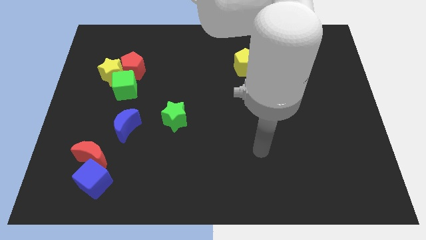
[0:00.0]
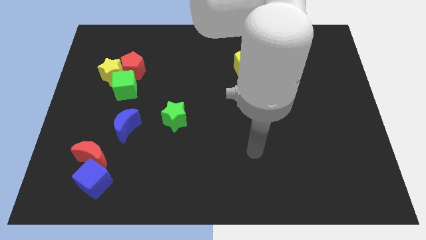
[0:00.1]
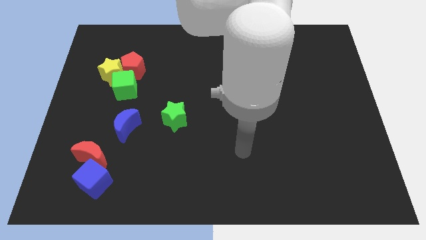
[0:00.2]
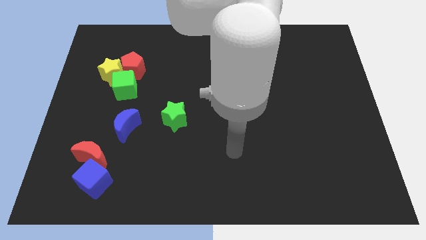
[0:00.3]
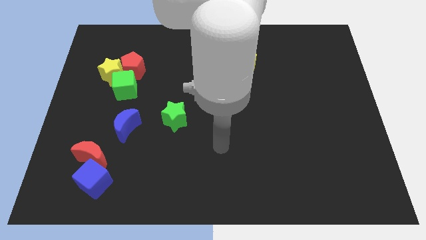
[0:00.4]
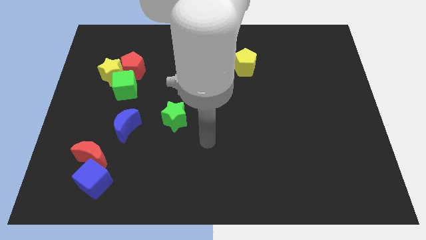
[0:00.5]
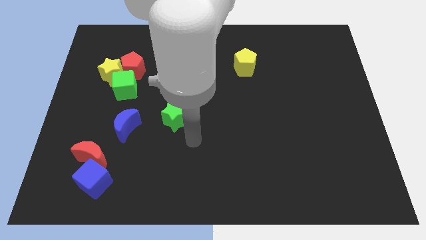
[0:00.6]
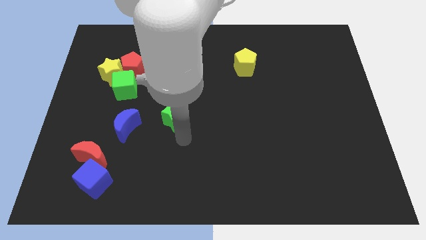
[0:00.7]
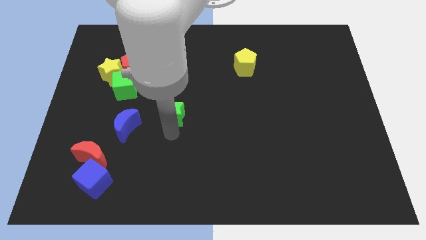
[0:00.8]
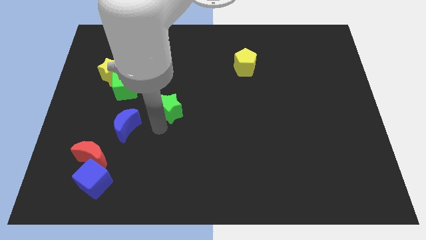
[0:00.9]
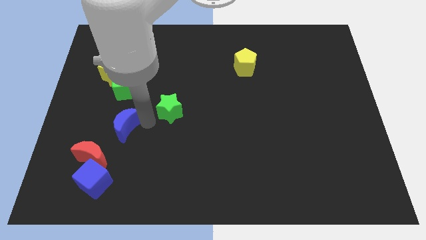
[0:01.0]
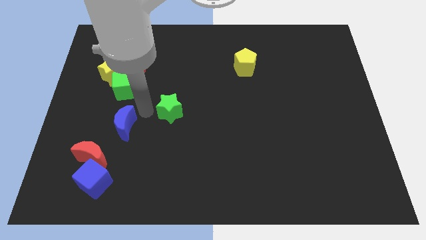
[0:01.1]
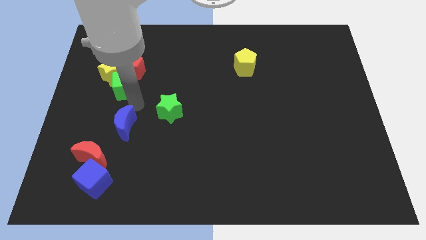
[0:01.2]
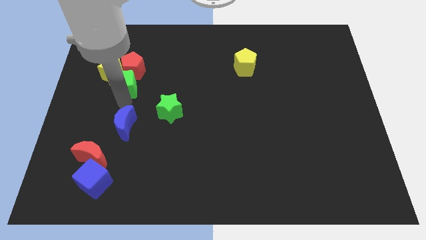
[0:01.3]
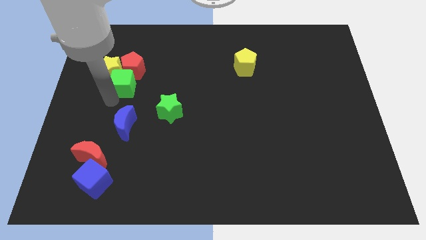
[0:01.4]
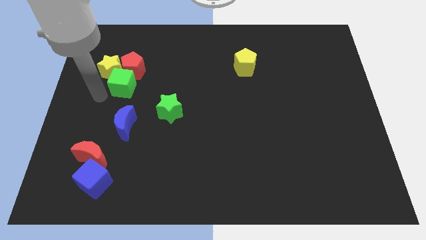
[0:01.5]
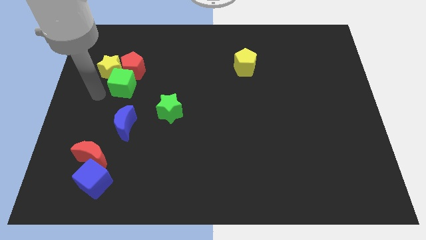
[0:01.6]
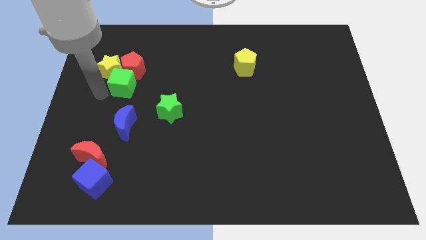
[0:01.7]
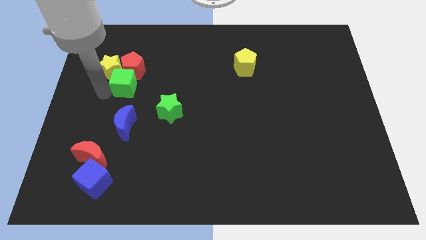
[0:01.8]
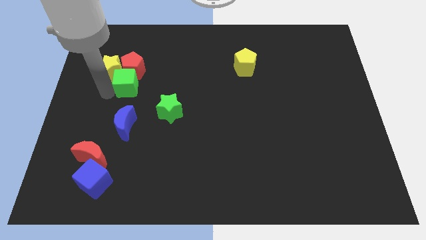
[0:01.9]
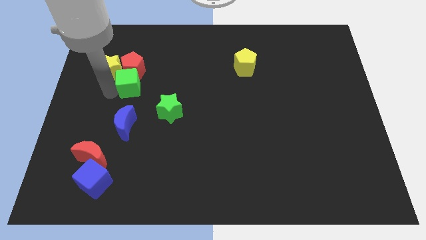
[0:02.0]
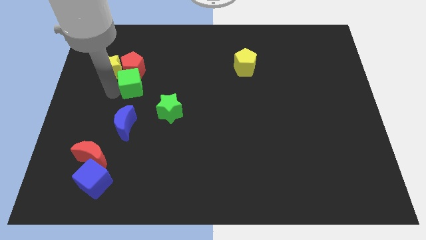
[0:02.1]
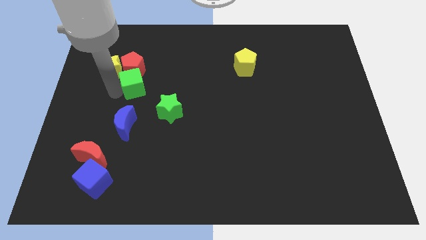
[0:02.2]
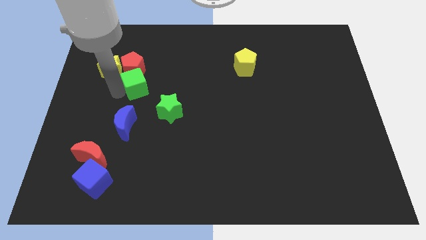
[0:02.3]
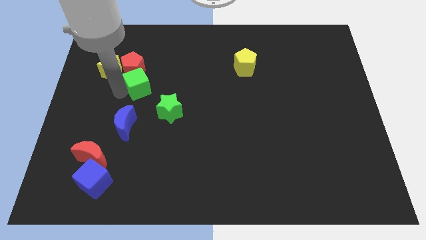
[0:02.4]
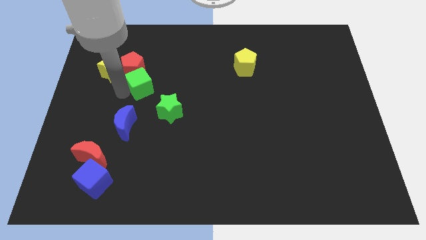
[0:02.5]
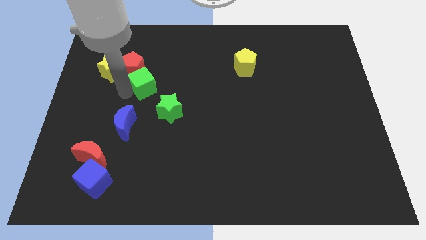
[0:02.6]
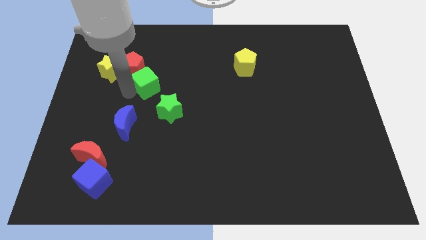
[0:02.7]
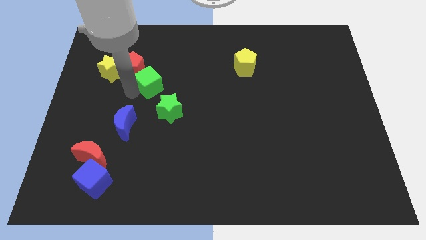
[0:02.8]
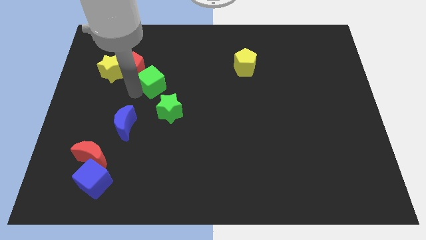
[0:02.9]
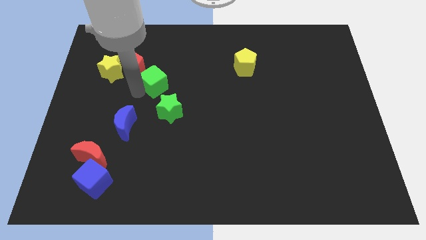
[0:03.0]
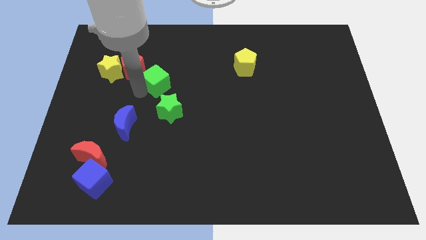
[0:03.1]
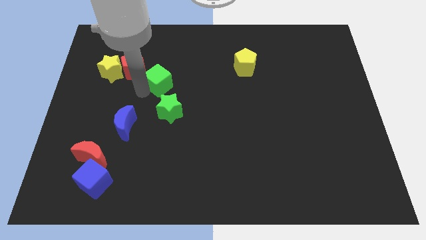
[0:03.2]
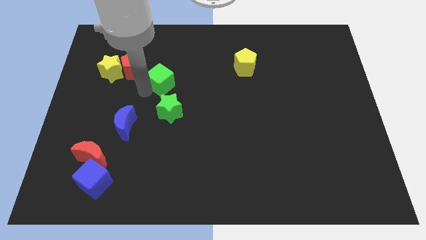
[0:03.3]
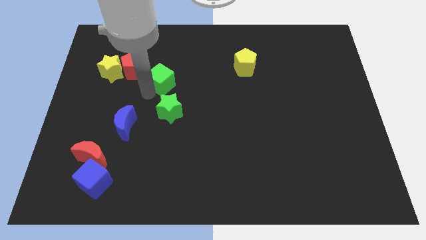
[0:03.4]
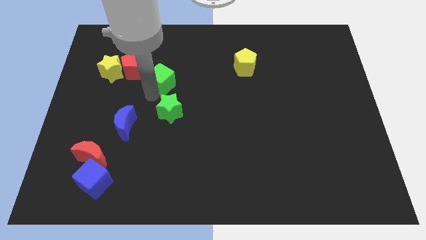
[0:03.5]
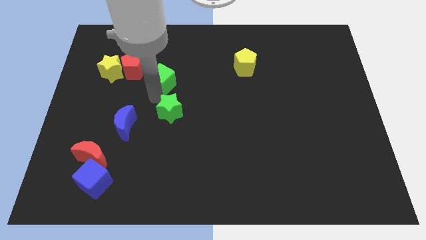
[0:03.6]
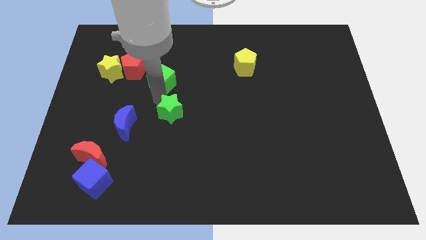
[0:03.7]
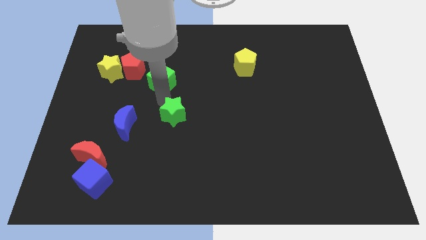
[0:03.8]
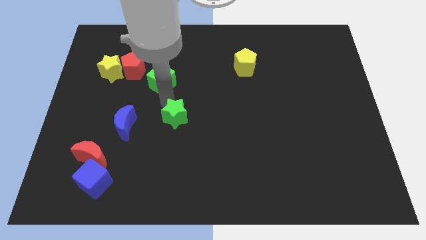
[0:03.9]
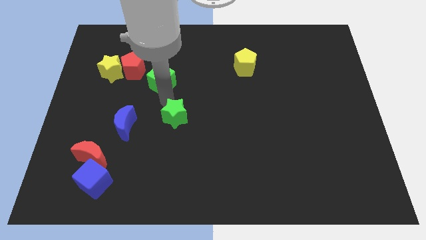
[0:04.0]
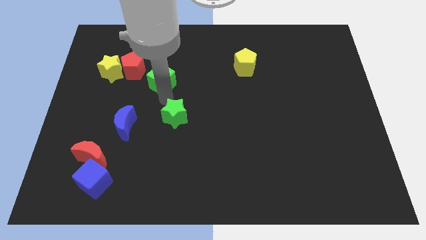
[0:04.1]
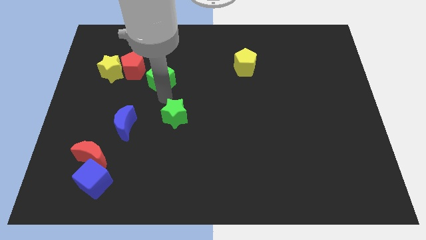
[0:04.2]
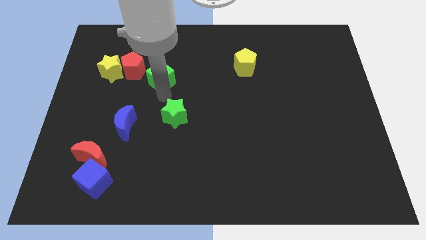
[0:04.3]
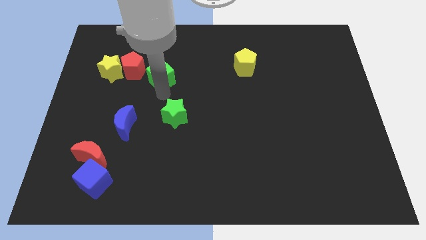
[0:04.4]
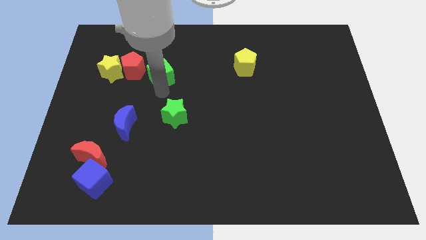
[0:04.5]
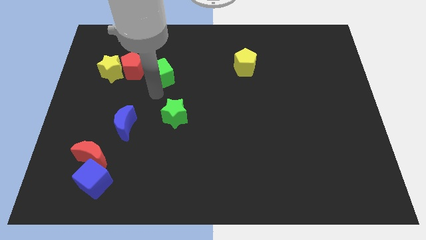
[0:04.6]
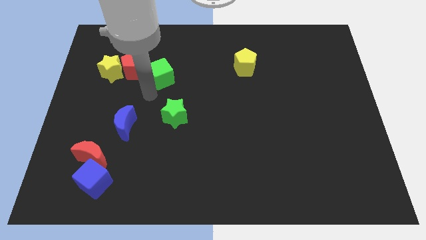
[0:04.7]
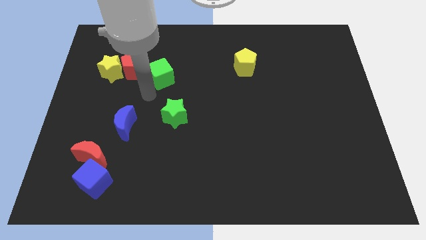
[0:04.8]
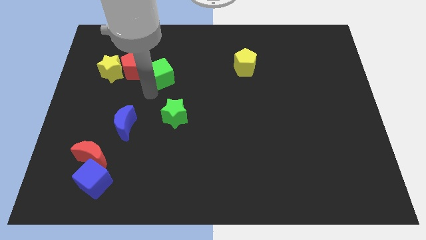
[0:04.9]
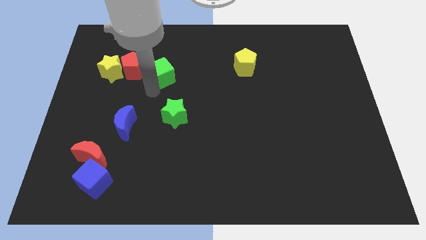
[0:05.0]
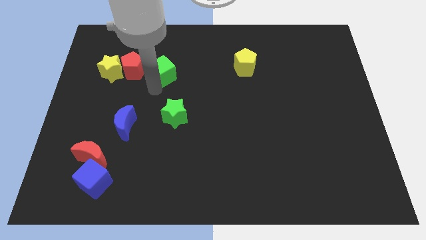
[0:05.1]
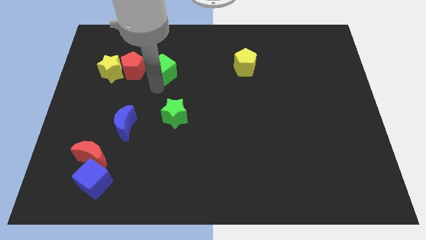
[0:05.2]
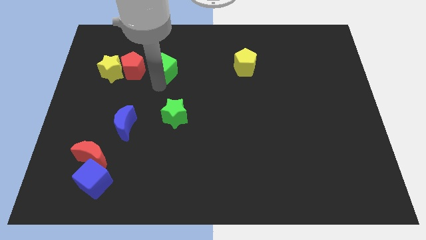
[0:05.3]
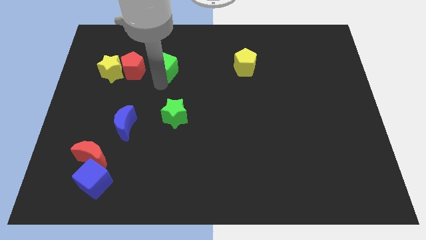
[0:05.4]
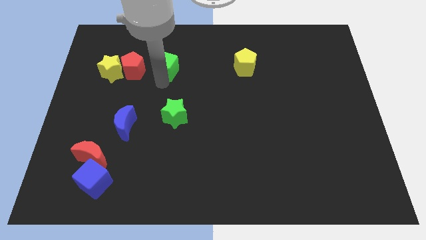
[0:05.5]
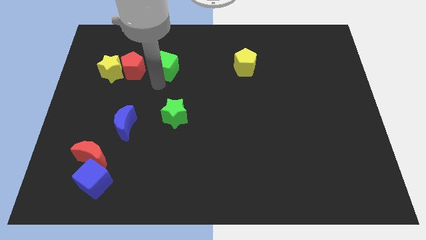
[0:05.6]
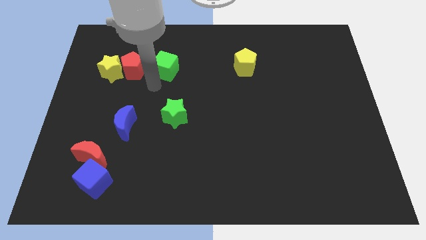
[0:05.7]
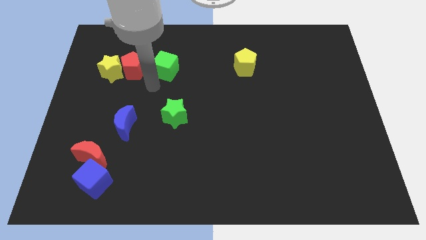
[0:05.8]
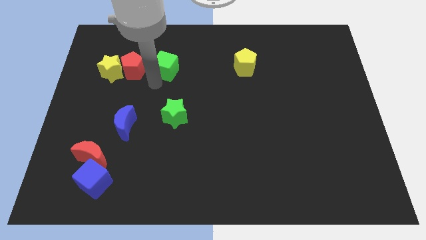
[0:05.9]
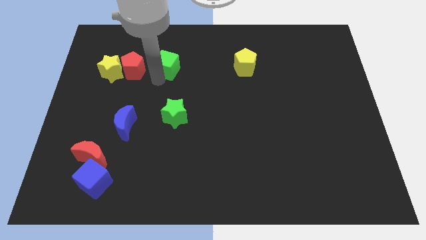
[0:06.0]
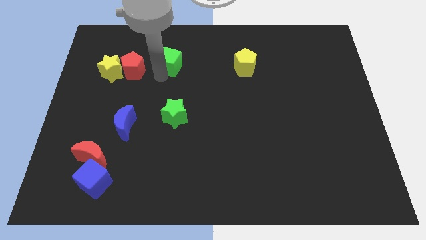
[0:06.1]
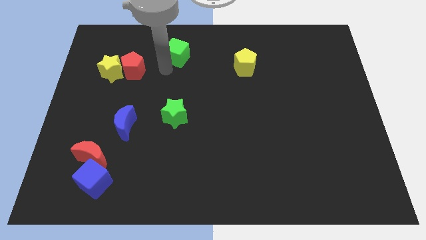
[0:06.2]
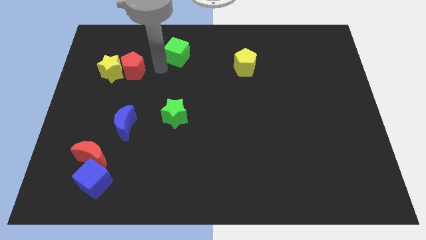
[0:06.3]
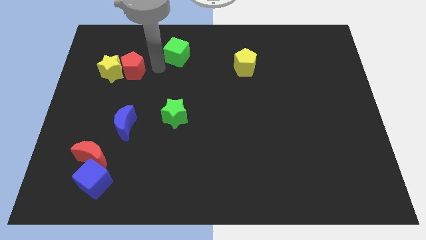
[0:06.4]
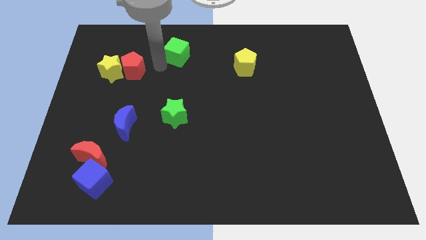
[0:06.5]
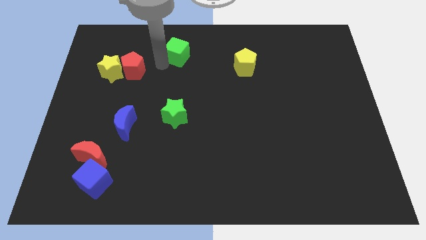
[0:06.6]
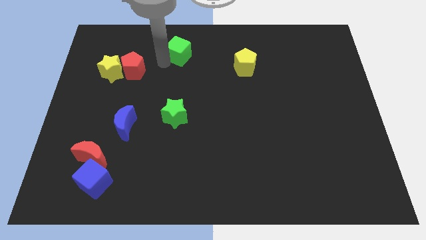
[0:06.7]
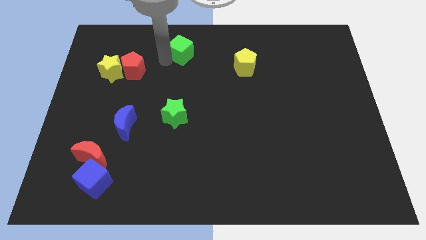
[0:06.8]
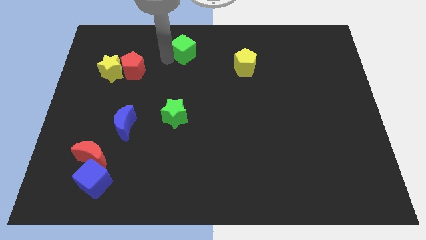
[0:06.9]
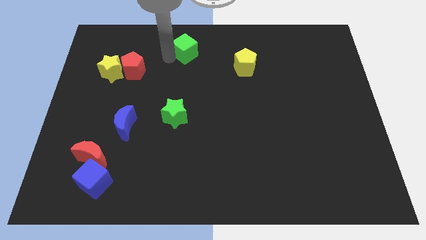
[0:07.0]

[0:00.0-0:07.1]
put the green cube to the top side
